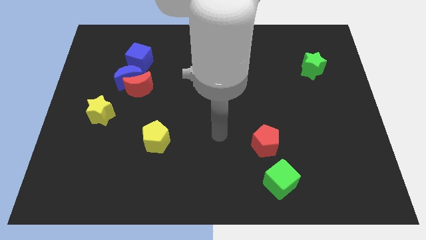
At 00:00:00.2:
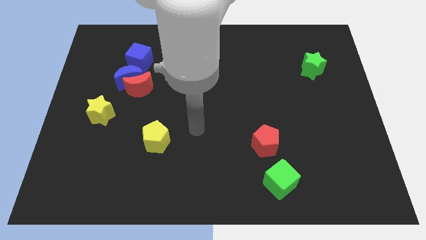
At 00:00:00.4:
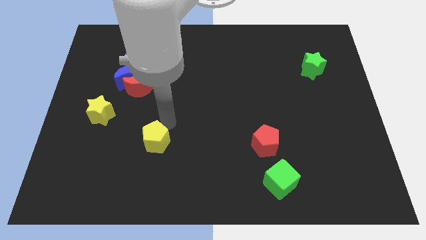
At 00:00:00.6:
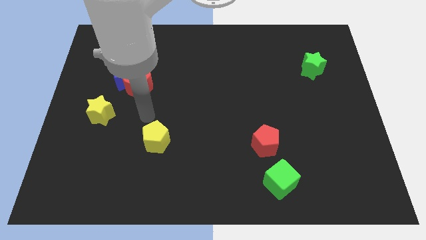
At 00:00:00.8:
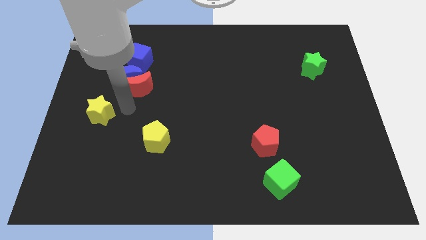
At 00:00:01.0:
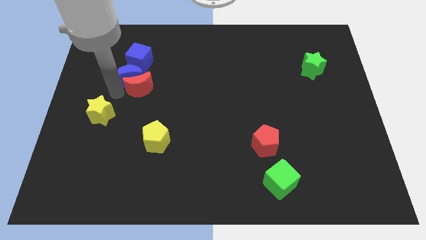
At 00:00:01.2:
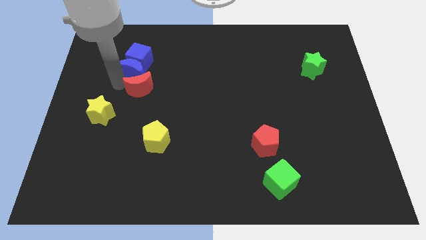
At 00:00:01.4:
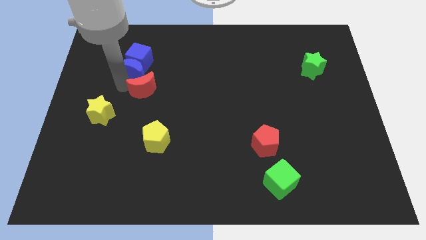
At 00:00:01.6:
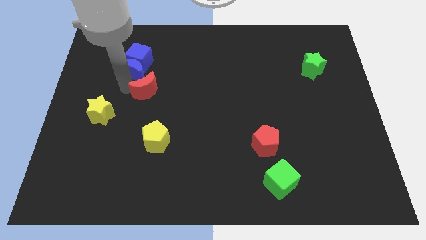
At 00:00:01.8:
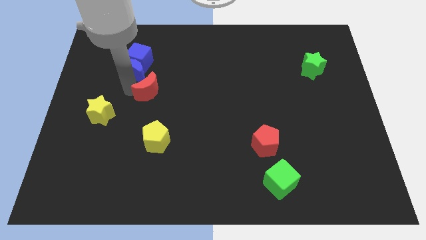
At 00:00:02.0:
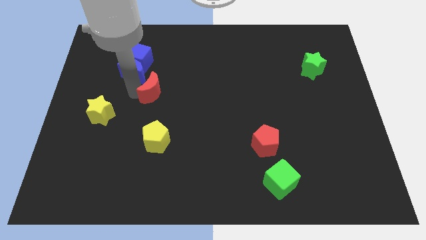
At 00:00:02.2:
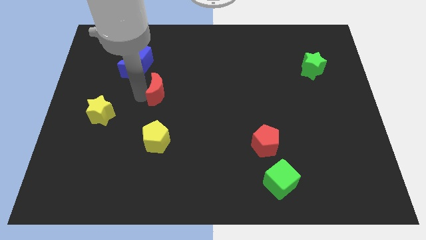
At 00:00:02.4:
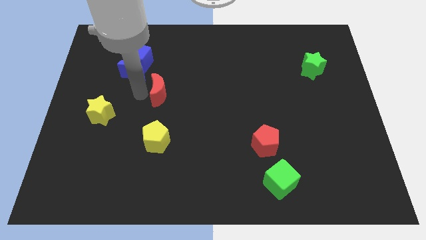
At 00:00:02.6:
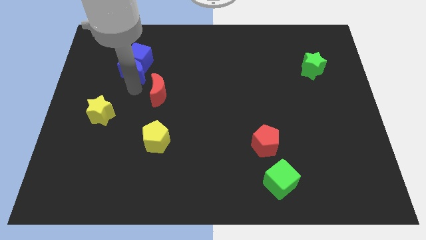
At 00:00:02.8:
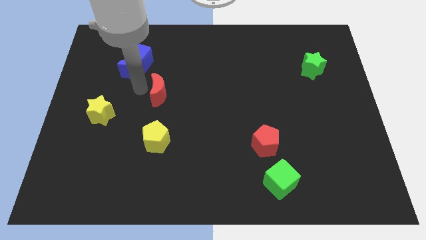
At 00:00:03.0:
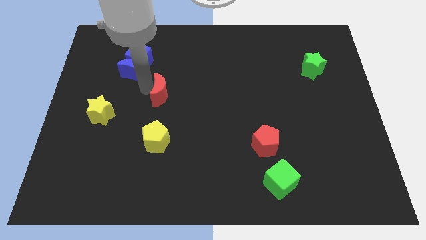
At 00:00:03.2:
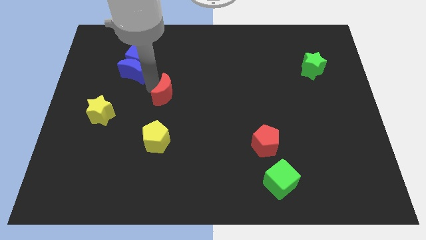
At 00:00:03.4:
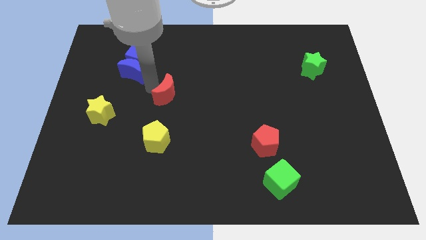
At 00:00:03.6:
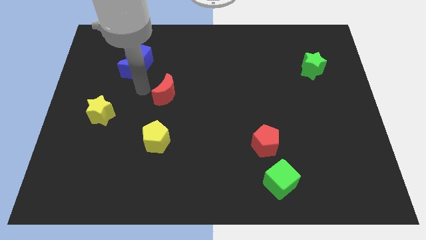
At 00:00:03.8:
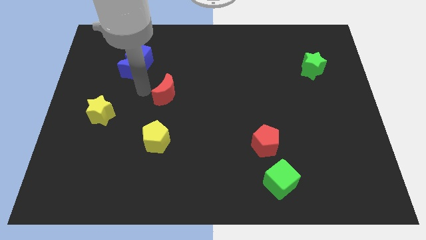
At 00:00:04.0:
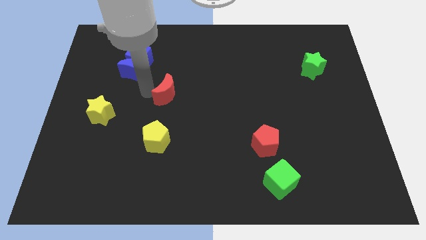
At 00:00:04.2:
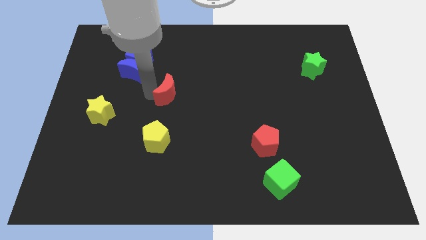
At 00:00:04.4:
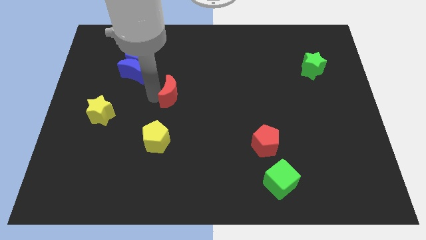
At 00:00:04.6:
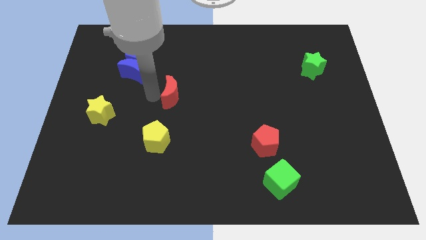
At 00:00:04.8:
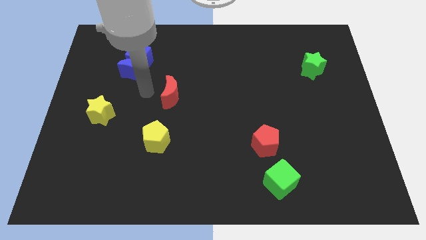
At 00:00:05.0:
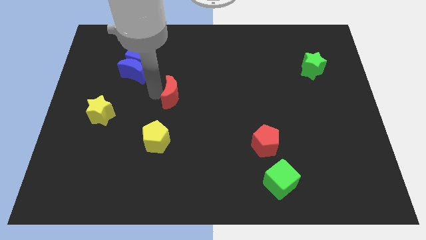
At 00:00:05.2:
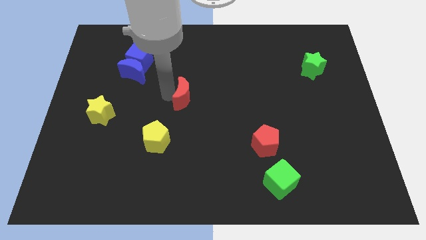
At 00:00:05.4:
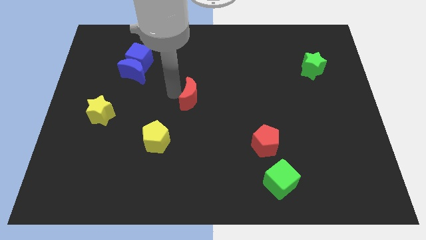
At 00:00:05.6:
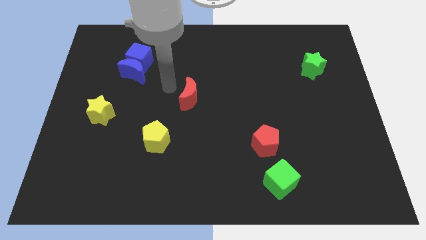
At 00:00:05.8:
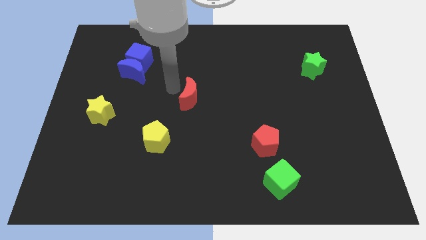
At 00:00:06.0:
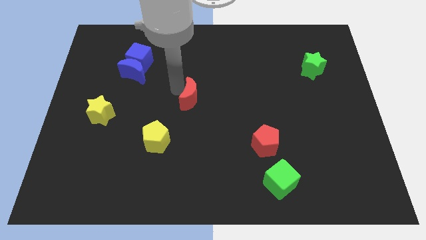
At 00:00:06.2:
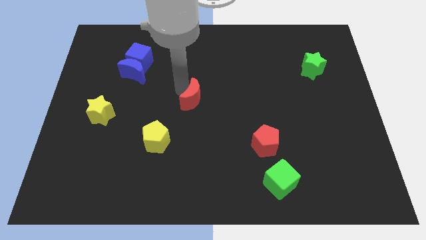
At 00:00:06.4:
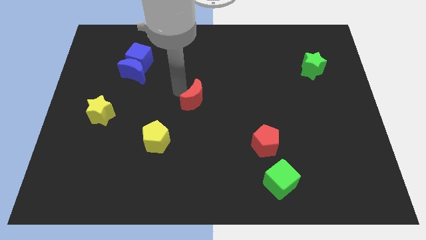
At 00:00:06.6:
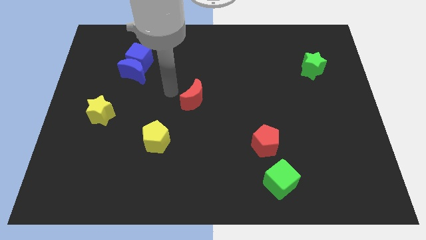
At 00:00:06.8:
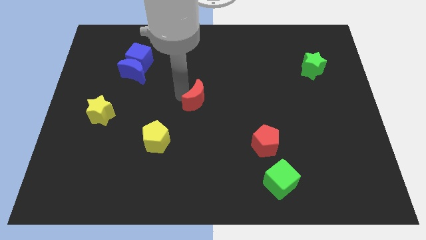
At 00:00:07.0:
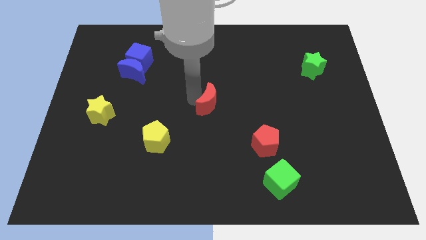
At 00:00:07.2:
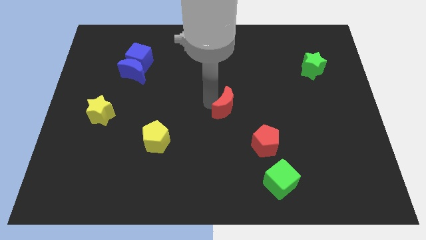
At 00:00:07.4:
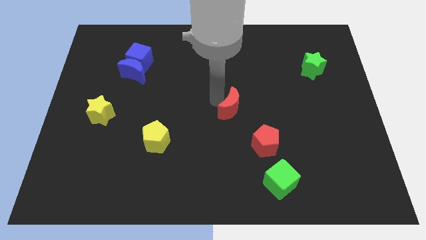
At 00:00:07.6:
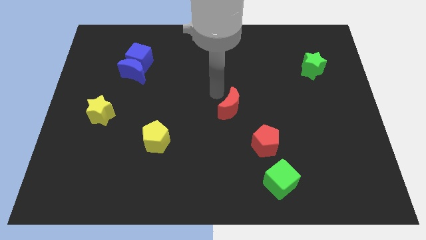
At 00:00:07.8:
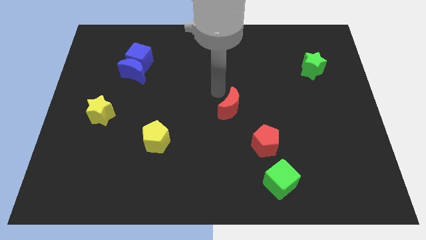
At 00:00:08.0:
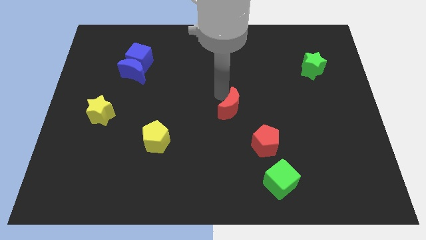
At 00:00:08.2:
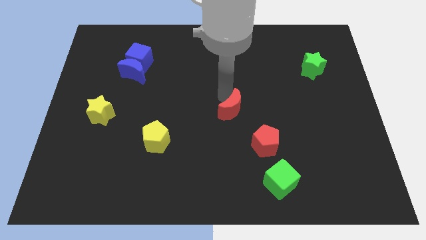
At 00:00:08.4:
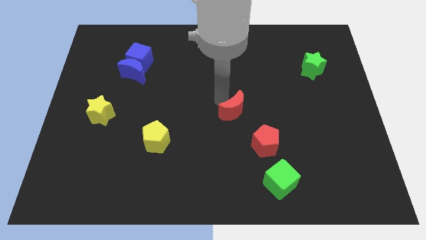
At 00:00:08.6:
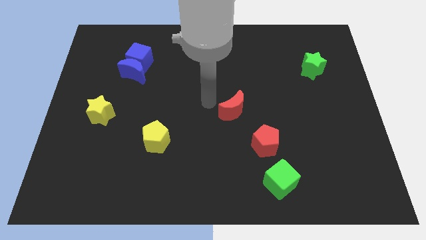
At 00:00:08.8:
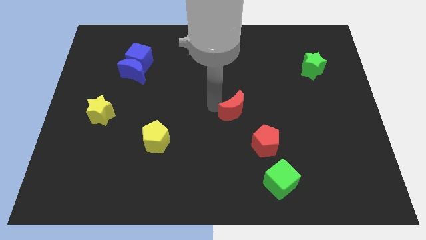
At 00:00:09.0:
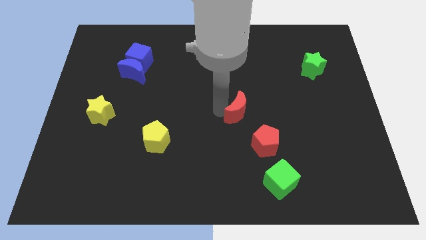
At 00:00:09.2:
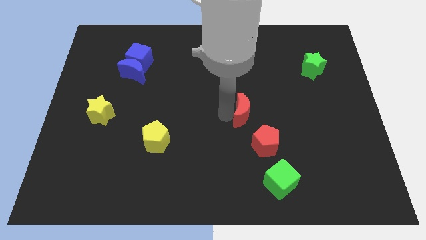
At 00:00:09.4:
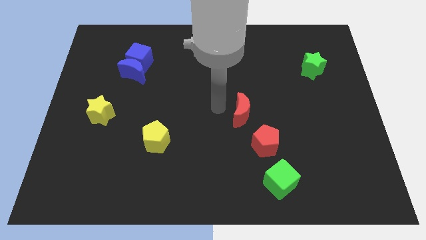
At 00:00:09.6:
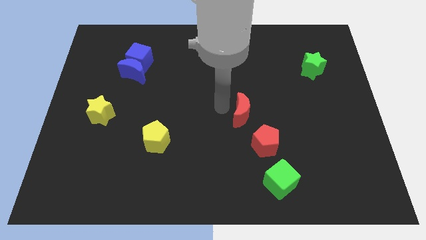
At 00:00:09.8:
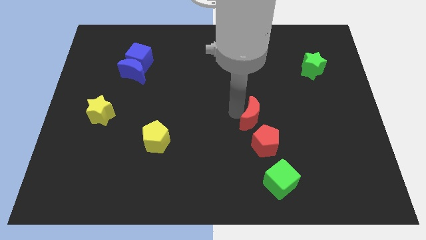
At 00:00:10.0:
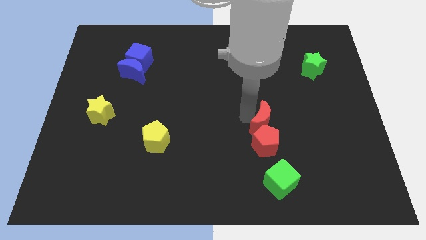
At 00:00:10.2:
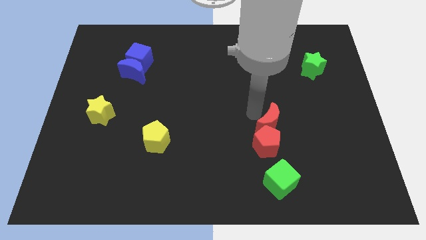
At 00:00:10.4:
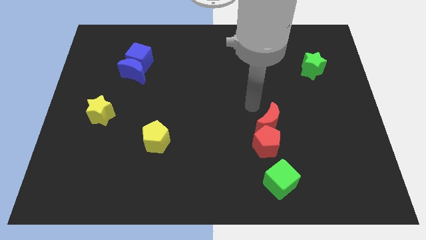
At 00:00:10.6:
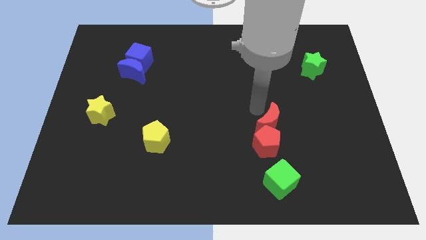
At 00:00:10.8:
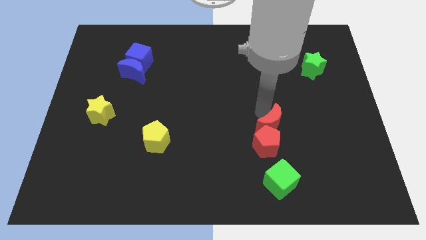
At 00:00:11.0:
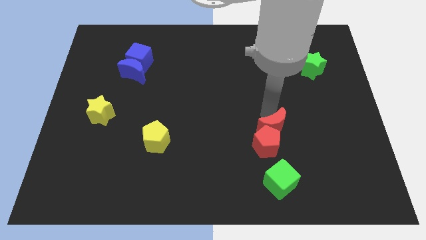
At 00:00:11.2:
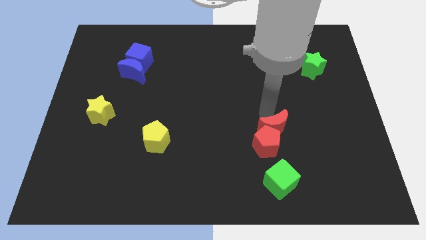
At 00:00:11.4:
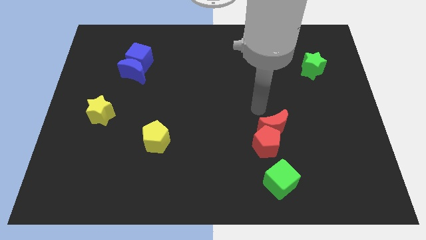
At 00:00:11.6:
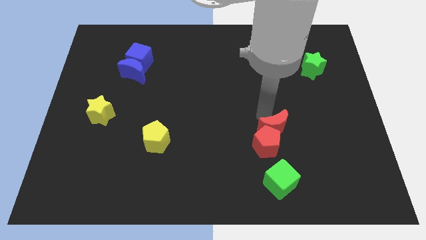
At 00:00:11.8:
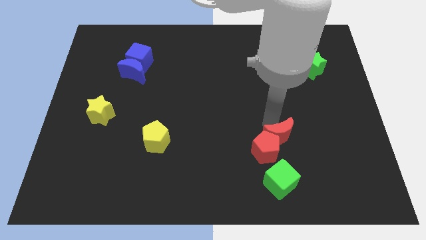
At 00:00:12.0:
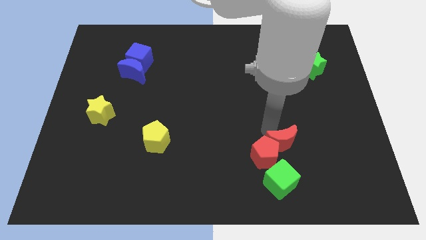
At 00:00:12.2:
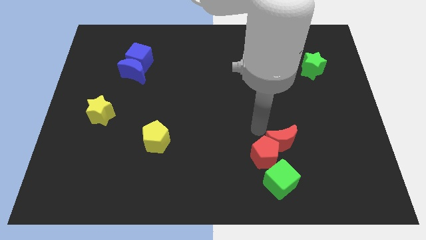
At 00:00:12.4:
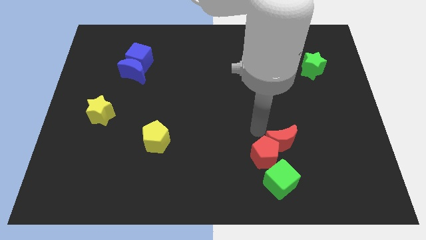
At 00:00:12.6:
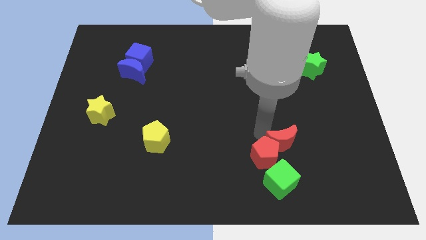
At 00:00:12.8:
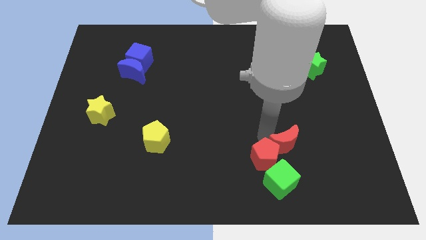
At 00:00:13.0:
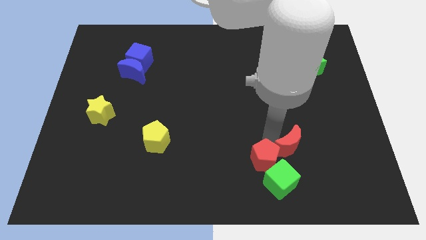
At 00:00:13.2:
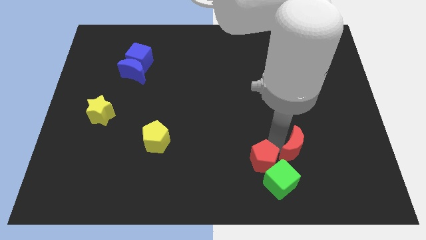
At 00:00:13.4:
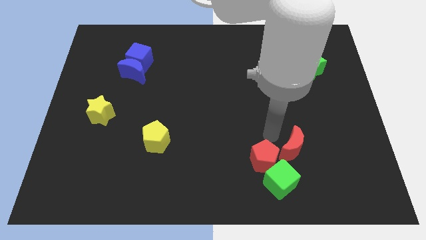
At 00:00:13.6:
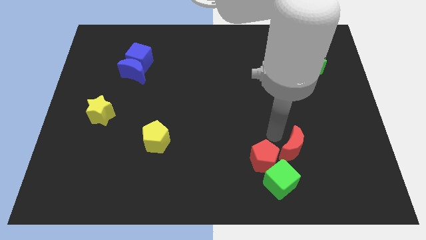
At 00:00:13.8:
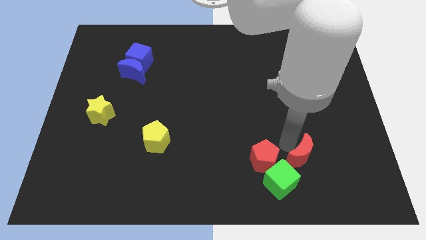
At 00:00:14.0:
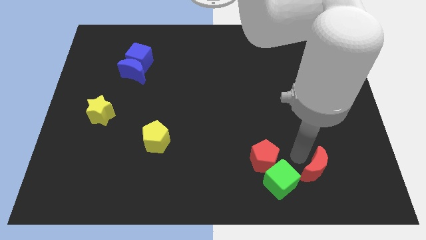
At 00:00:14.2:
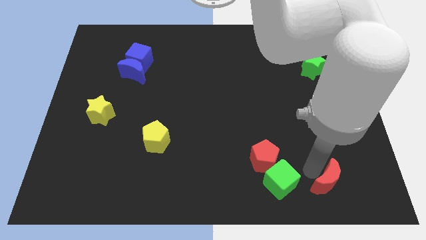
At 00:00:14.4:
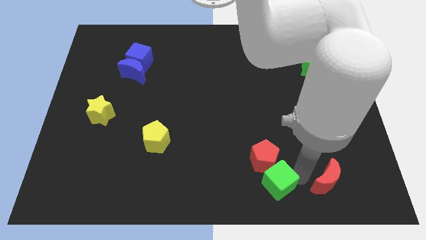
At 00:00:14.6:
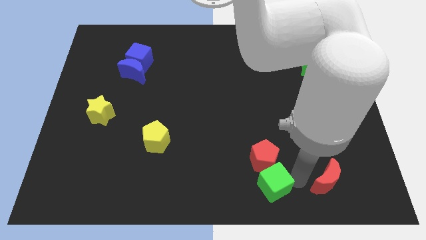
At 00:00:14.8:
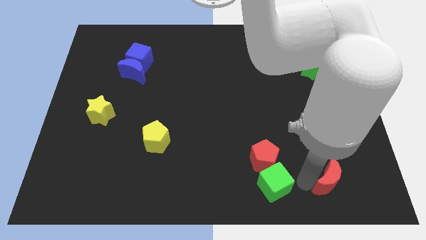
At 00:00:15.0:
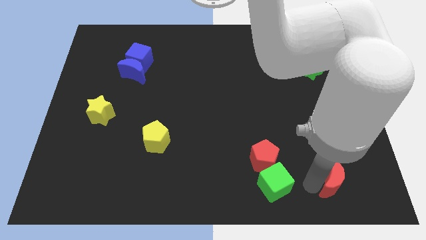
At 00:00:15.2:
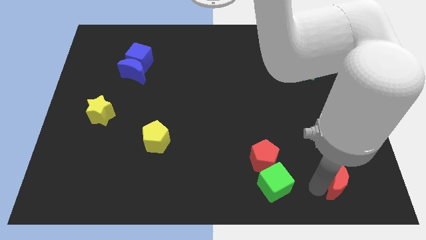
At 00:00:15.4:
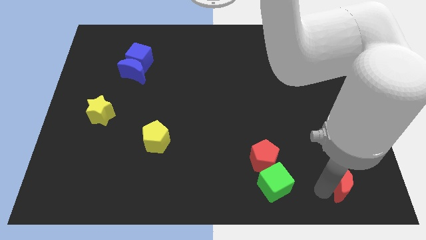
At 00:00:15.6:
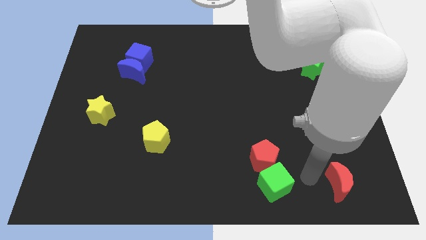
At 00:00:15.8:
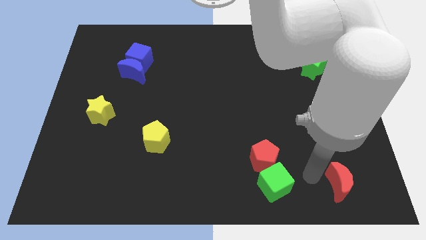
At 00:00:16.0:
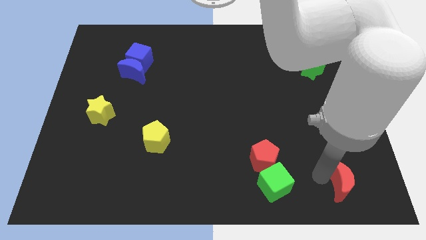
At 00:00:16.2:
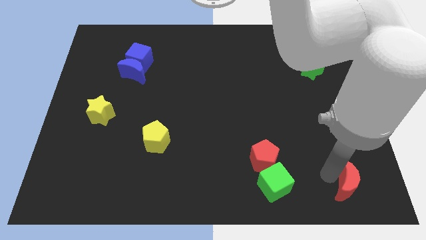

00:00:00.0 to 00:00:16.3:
put the red moon to the bottom right
